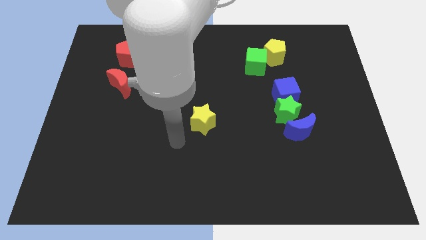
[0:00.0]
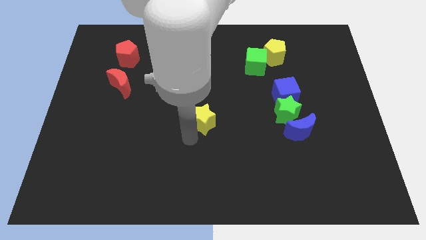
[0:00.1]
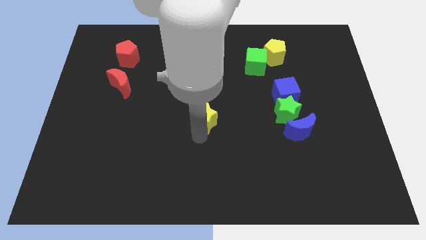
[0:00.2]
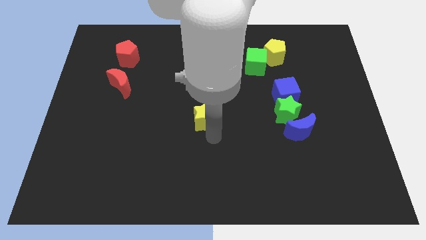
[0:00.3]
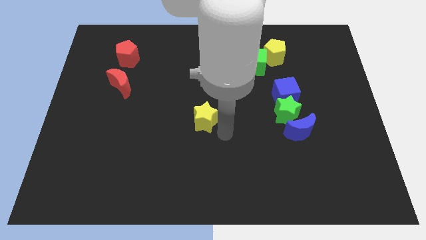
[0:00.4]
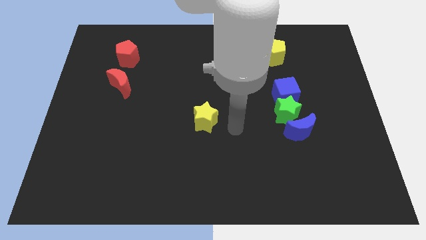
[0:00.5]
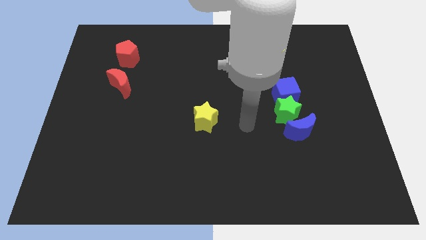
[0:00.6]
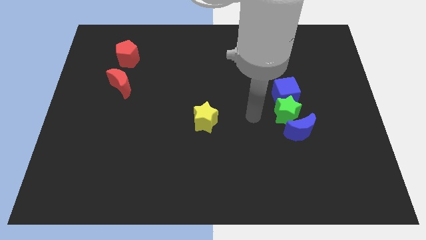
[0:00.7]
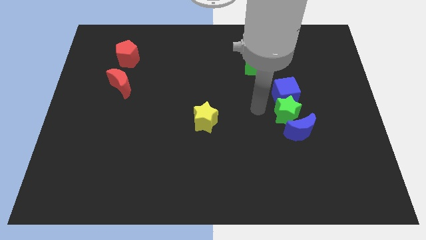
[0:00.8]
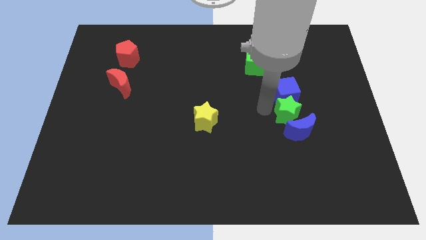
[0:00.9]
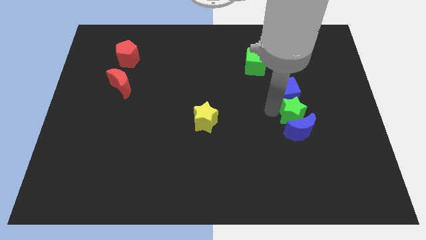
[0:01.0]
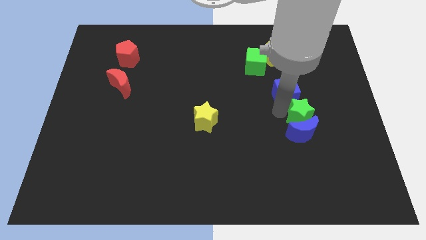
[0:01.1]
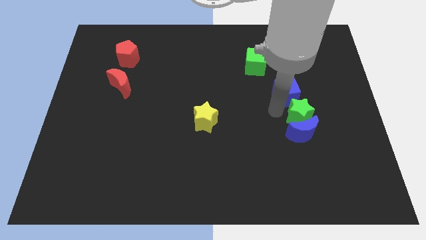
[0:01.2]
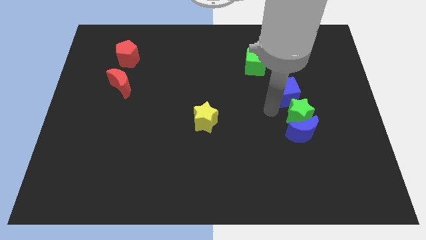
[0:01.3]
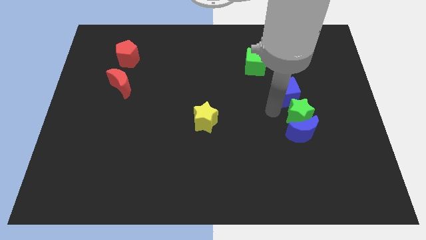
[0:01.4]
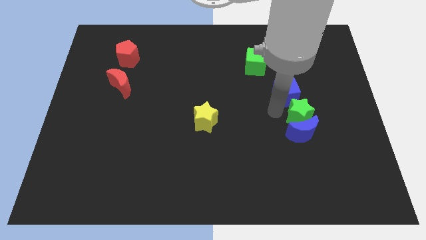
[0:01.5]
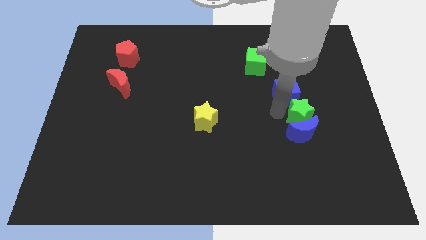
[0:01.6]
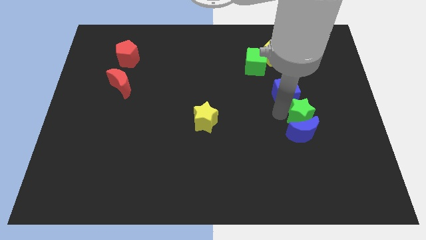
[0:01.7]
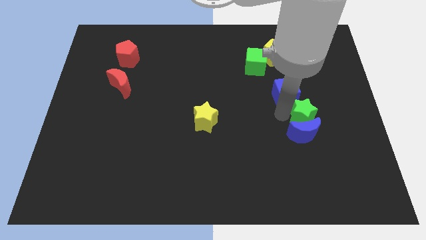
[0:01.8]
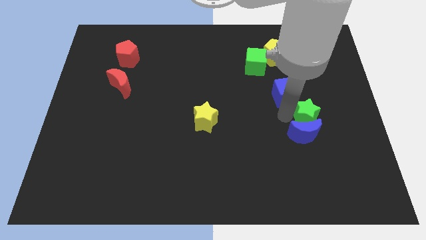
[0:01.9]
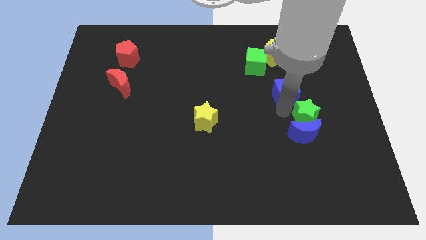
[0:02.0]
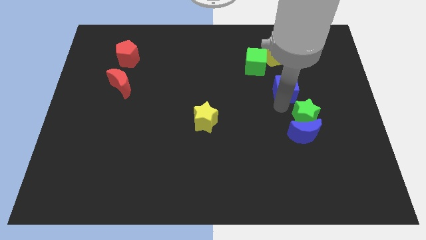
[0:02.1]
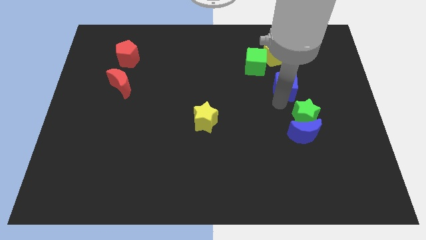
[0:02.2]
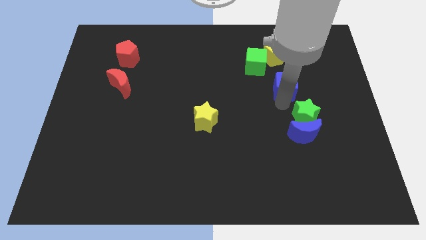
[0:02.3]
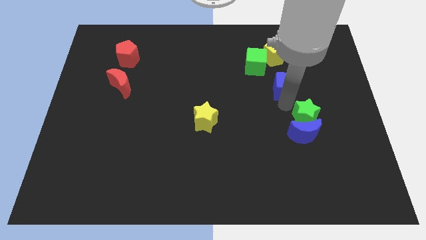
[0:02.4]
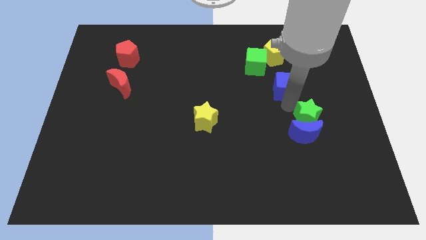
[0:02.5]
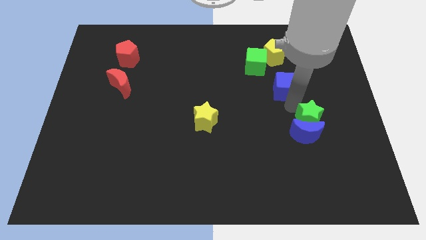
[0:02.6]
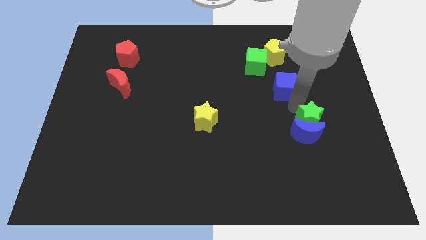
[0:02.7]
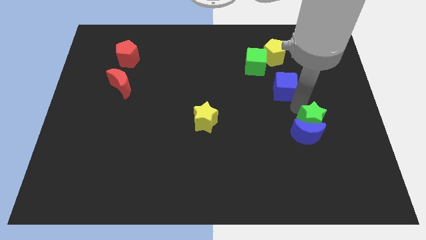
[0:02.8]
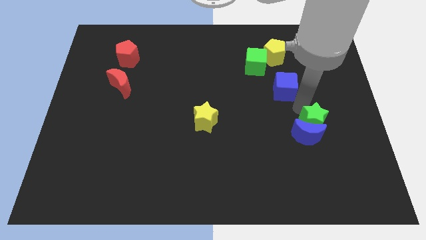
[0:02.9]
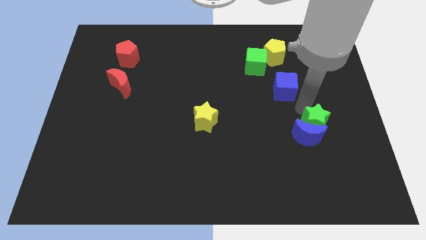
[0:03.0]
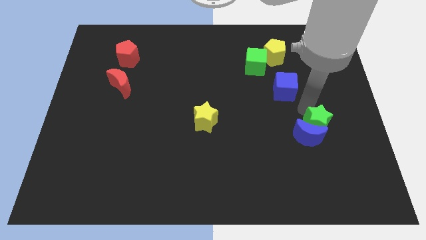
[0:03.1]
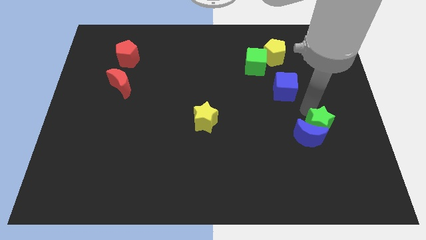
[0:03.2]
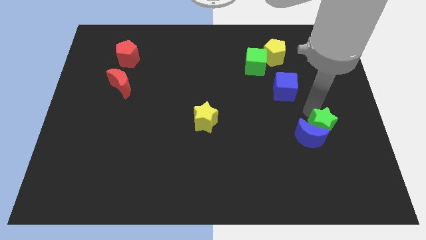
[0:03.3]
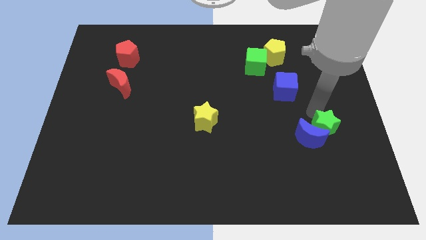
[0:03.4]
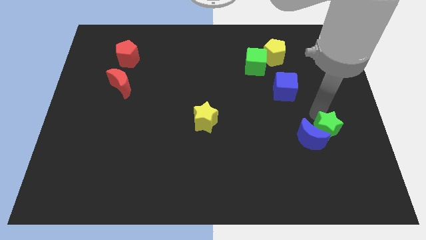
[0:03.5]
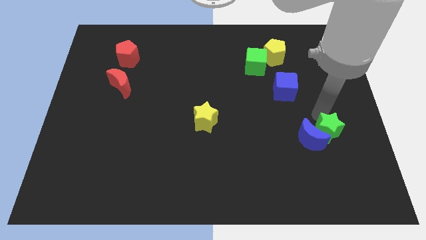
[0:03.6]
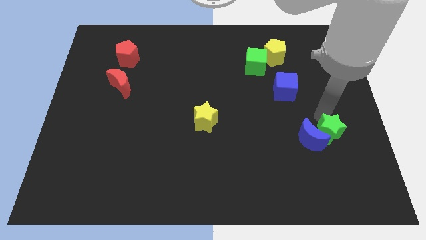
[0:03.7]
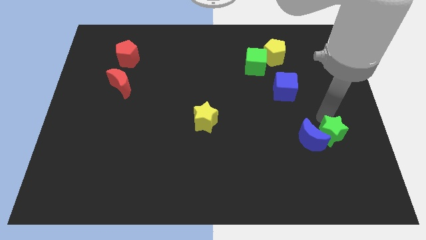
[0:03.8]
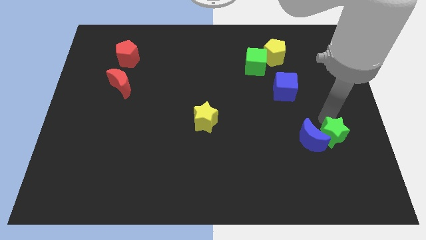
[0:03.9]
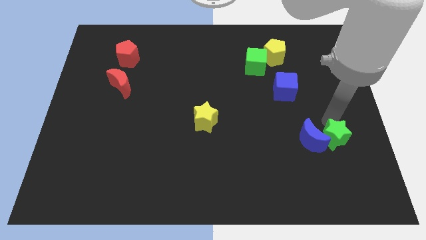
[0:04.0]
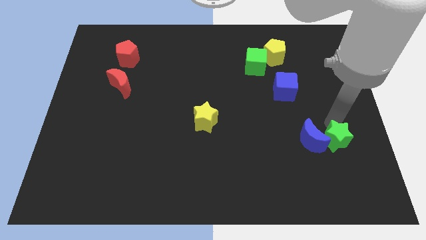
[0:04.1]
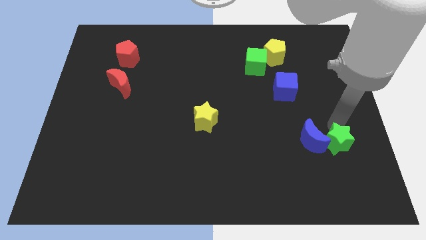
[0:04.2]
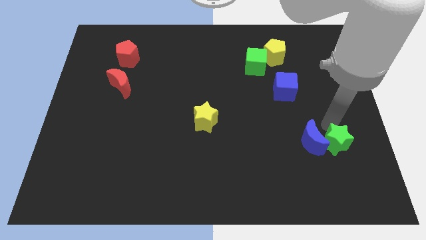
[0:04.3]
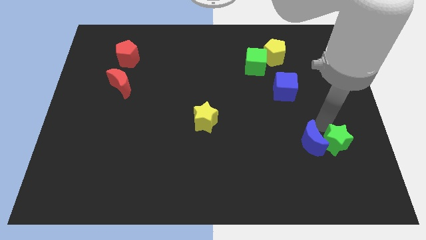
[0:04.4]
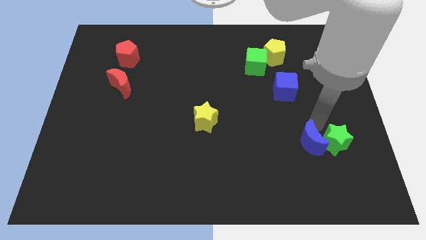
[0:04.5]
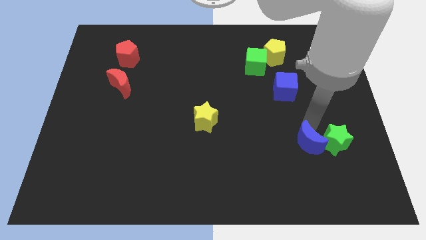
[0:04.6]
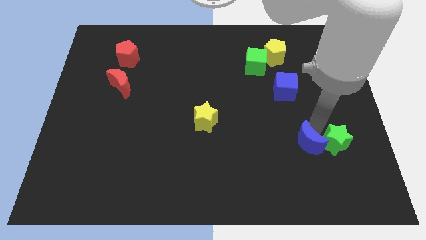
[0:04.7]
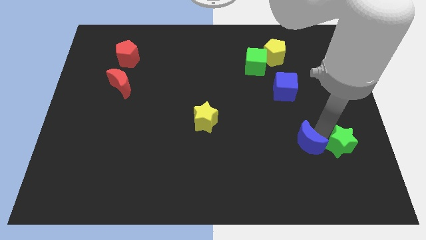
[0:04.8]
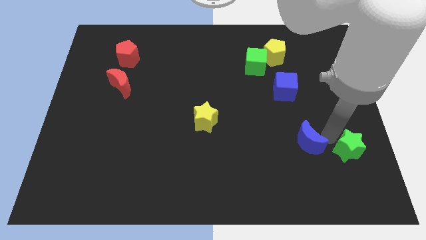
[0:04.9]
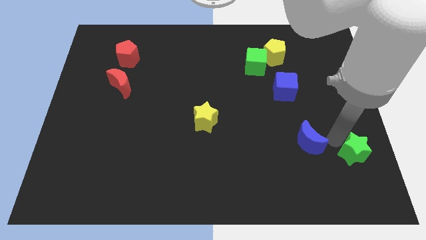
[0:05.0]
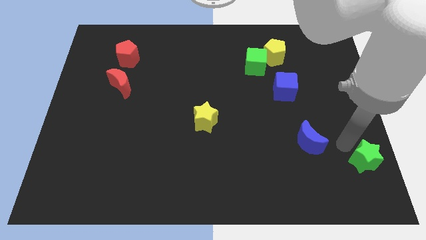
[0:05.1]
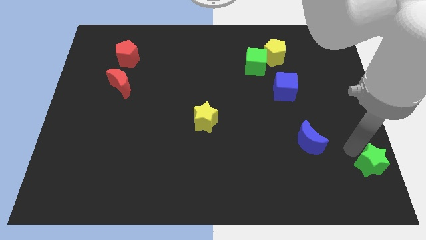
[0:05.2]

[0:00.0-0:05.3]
move the green star to the bottom right corner

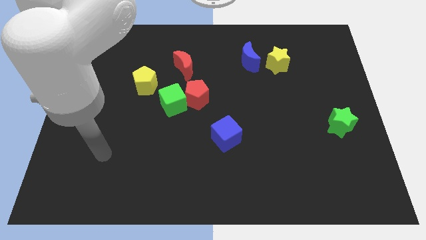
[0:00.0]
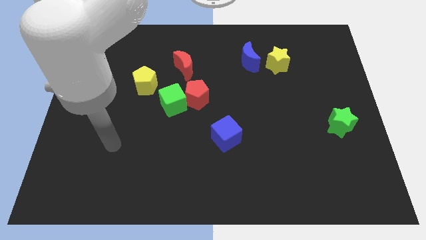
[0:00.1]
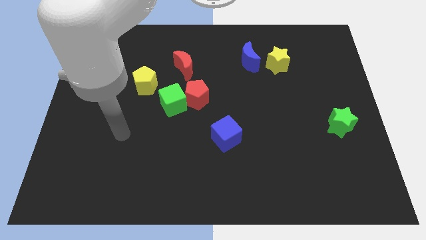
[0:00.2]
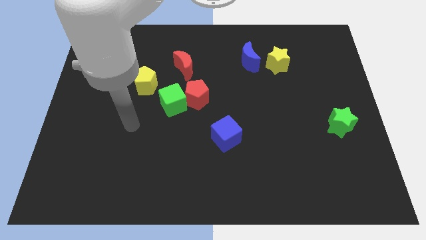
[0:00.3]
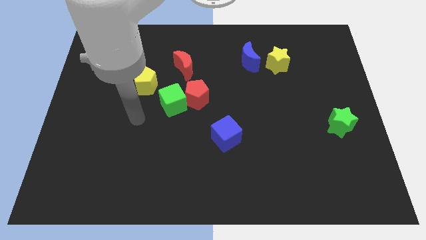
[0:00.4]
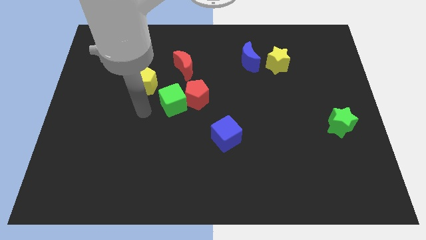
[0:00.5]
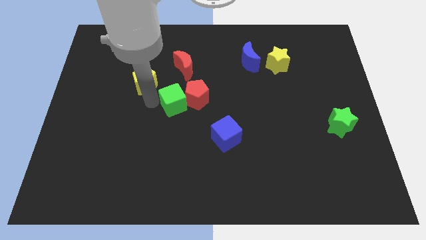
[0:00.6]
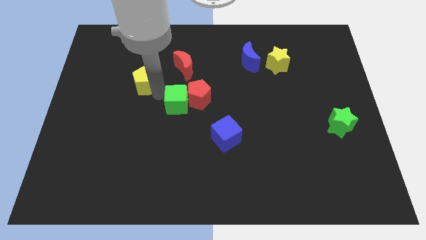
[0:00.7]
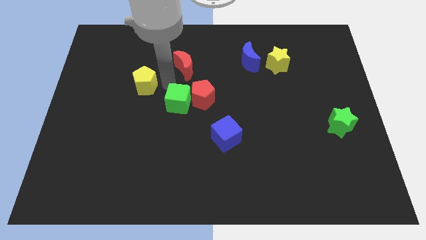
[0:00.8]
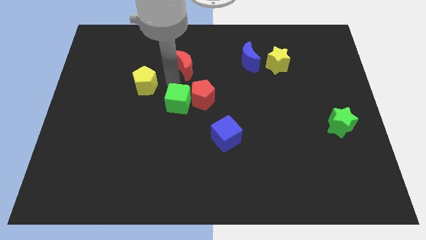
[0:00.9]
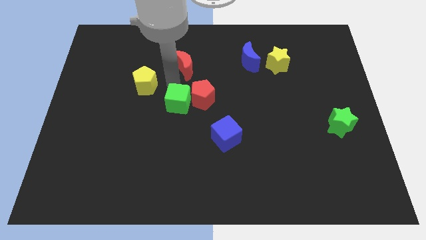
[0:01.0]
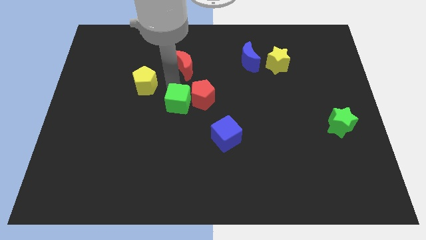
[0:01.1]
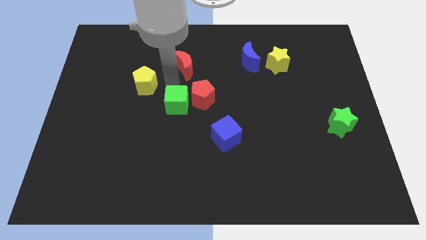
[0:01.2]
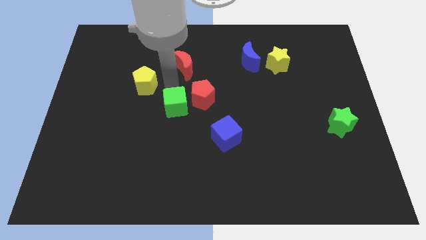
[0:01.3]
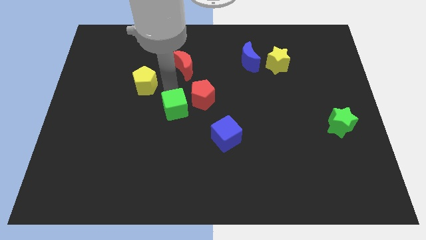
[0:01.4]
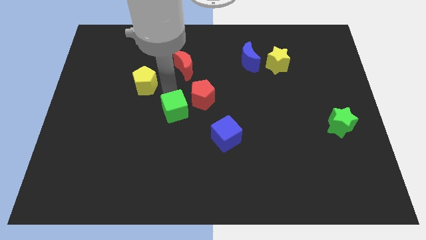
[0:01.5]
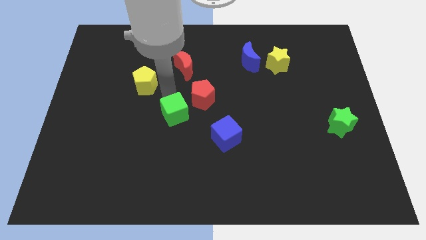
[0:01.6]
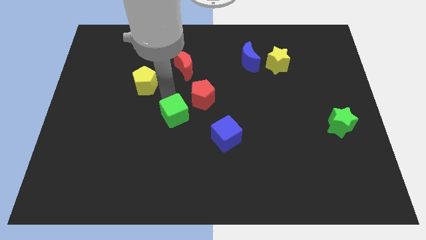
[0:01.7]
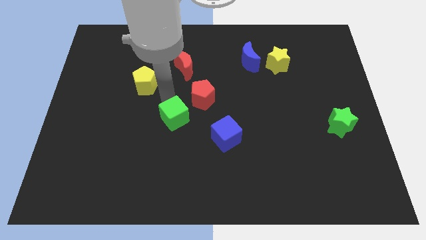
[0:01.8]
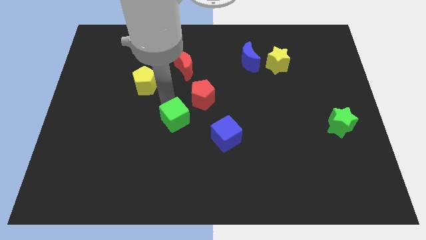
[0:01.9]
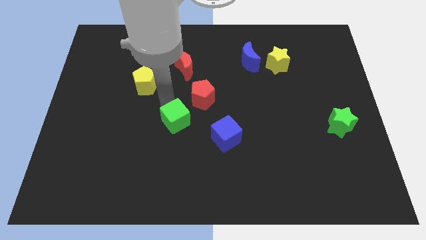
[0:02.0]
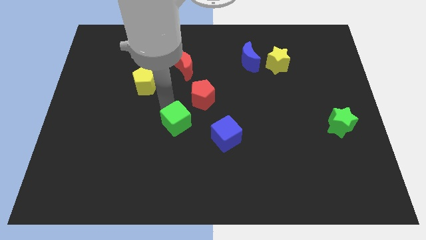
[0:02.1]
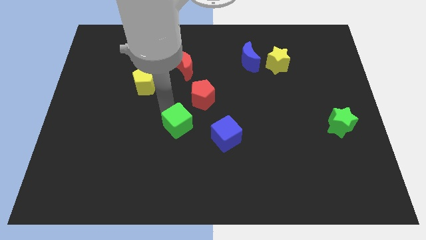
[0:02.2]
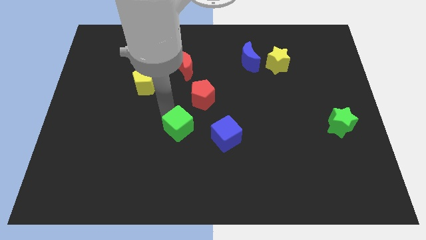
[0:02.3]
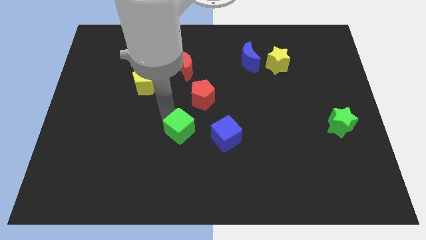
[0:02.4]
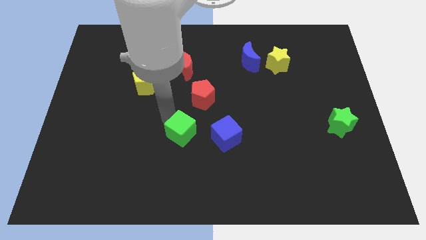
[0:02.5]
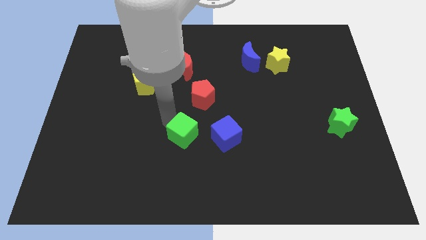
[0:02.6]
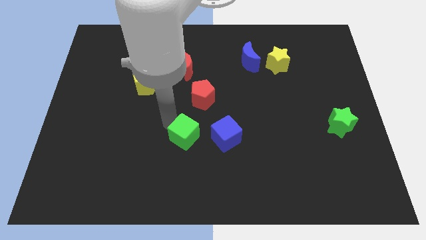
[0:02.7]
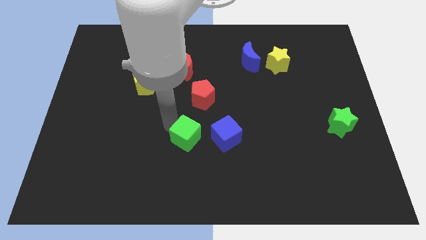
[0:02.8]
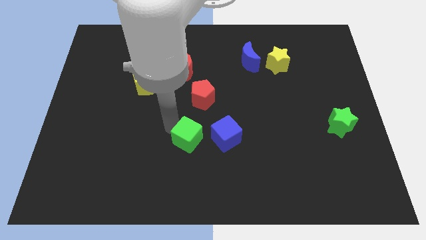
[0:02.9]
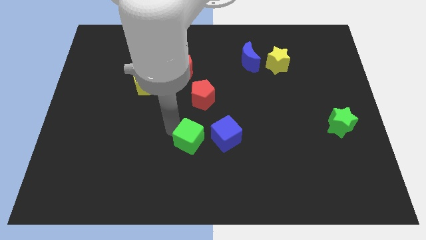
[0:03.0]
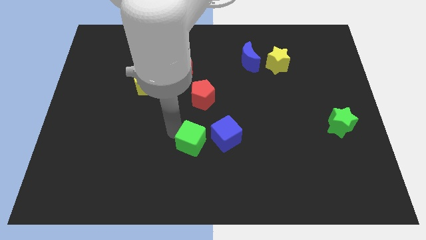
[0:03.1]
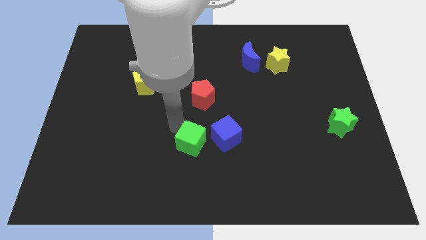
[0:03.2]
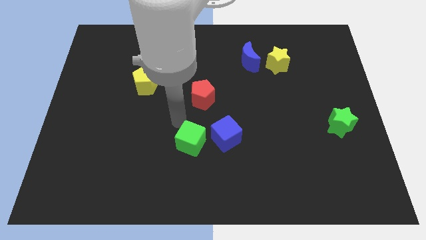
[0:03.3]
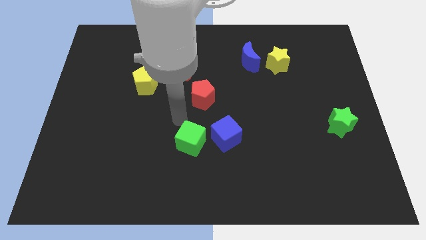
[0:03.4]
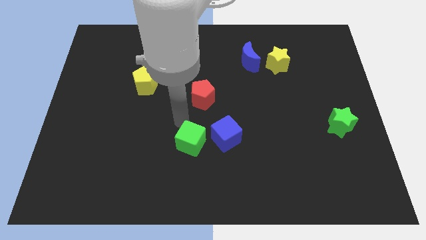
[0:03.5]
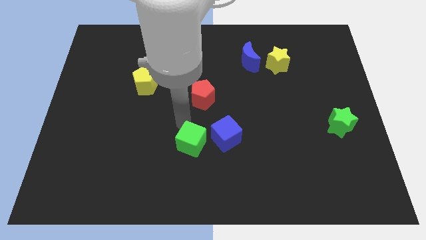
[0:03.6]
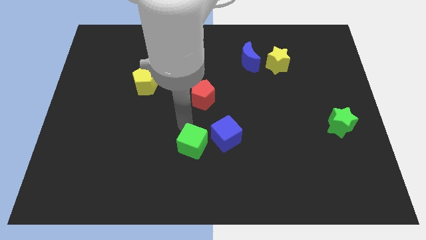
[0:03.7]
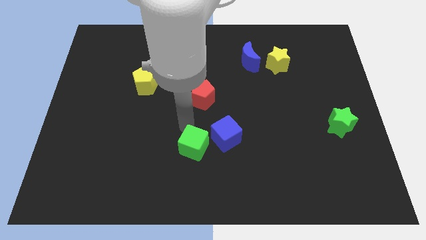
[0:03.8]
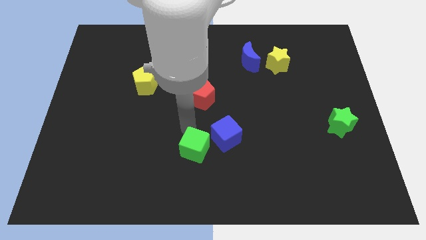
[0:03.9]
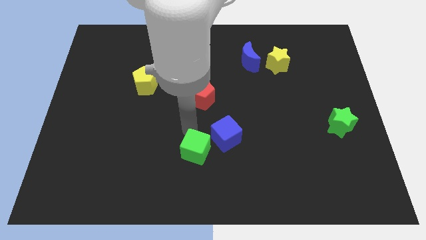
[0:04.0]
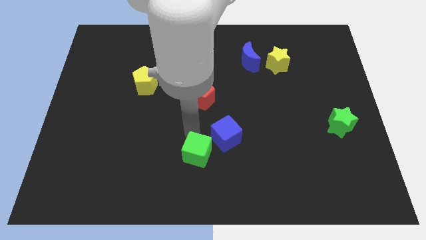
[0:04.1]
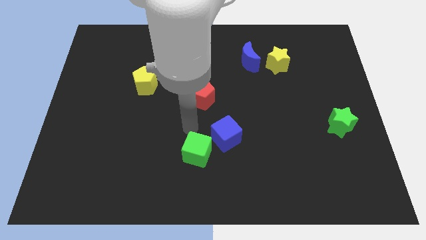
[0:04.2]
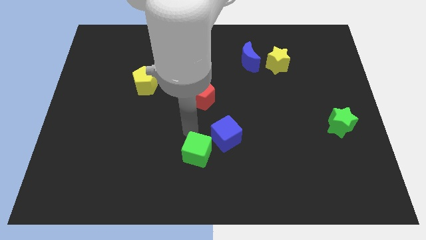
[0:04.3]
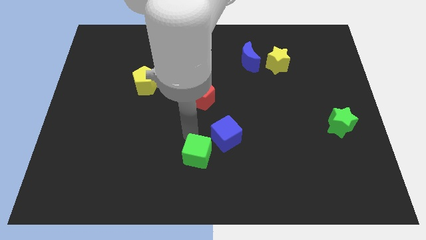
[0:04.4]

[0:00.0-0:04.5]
slide the green cube to the bottom side
